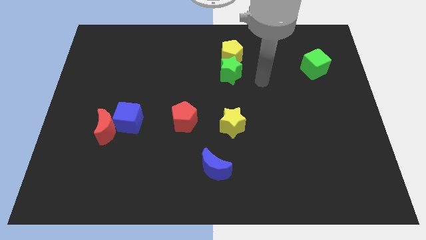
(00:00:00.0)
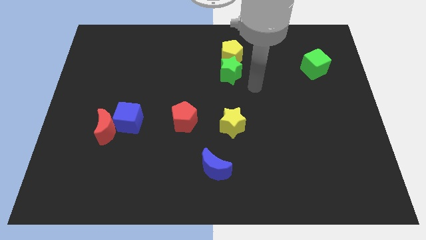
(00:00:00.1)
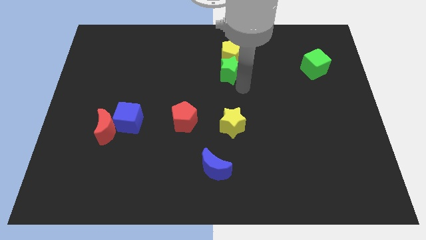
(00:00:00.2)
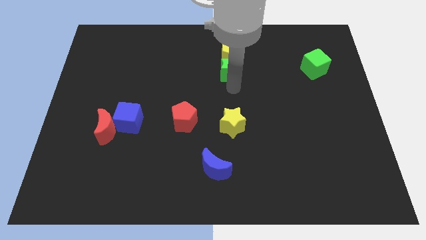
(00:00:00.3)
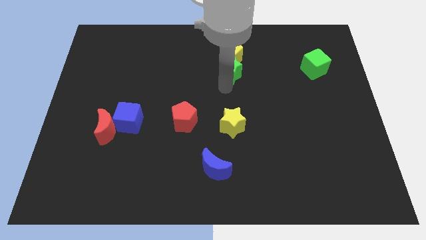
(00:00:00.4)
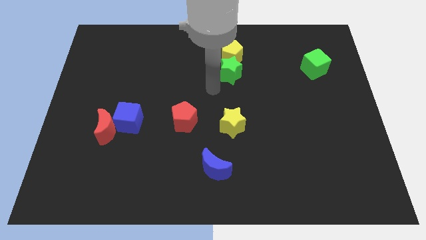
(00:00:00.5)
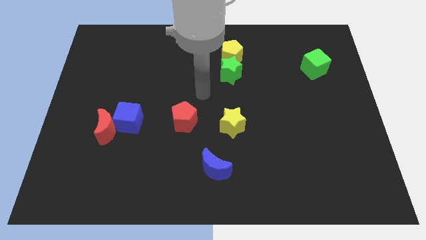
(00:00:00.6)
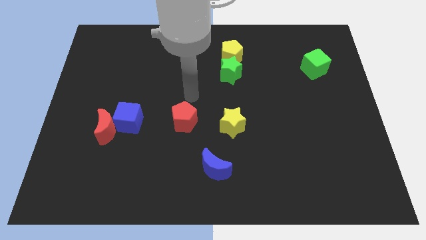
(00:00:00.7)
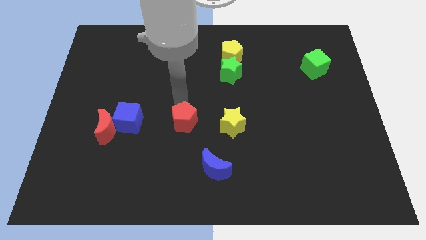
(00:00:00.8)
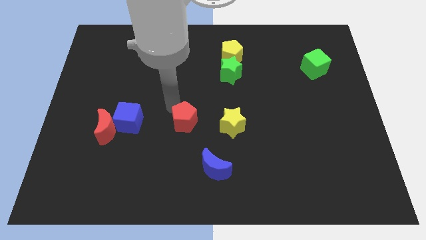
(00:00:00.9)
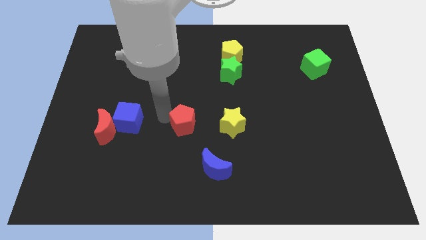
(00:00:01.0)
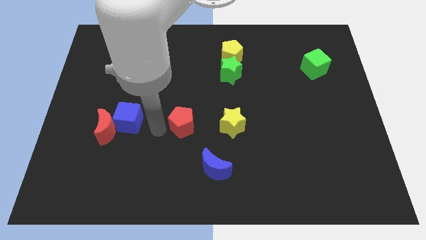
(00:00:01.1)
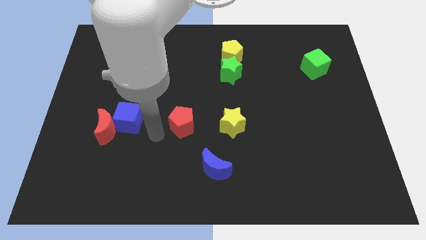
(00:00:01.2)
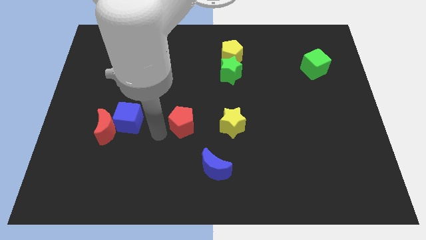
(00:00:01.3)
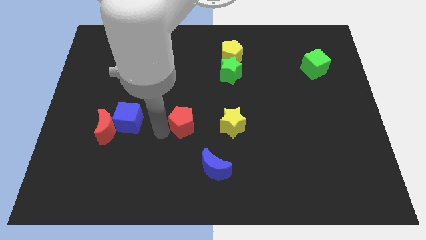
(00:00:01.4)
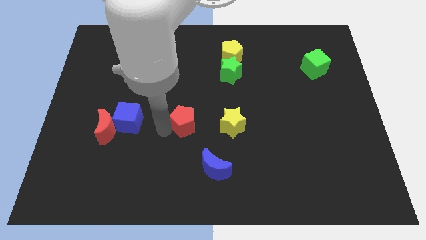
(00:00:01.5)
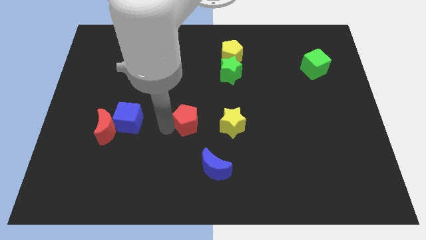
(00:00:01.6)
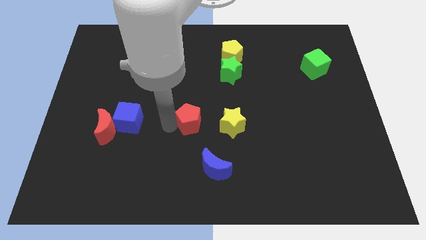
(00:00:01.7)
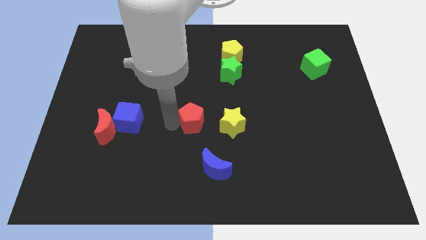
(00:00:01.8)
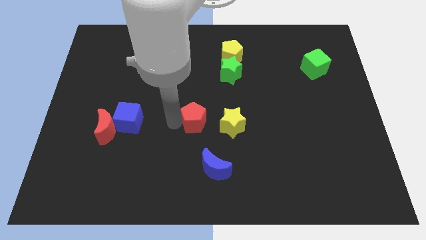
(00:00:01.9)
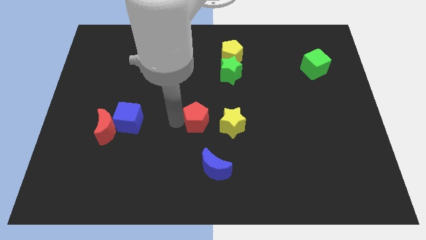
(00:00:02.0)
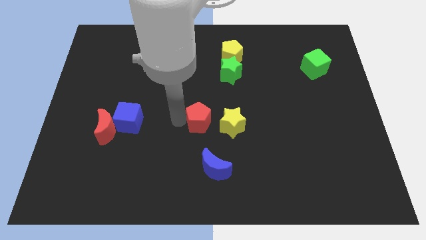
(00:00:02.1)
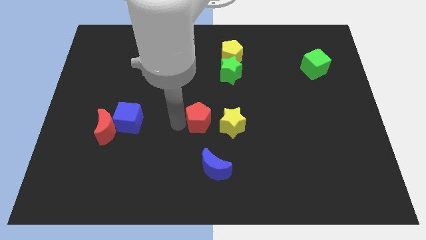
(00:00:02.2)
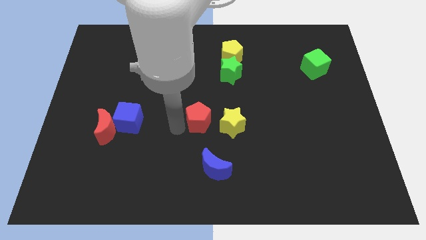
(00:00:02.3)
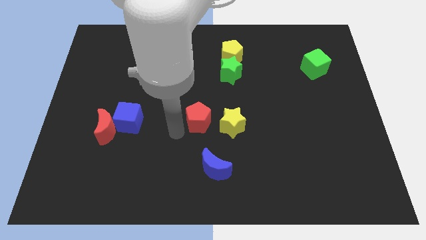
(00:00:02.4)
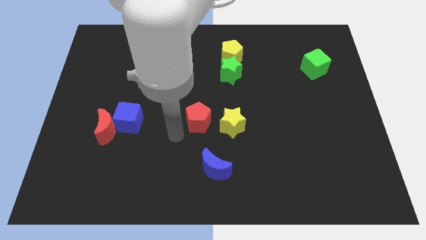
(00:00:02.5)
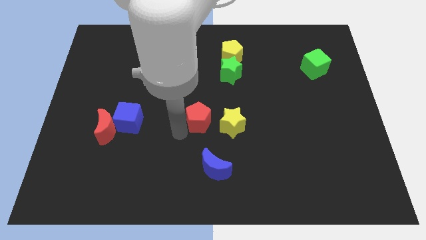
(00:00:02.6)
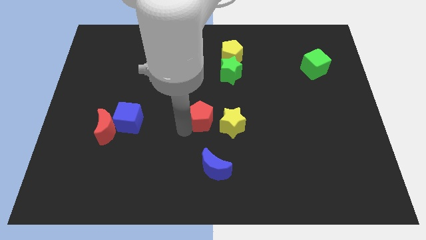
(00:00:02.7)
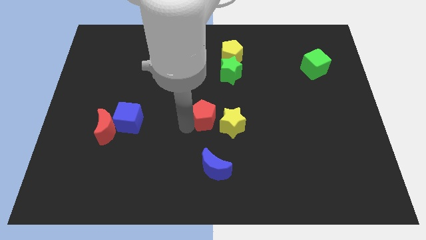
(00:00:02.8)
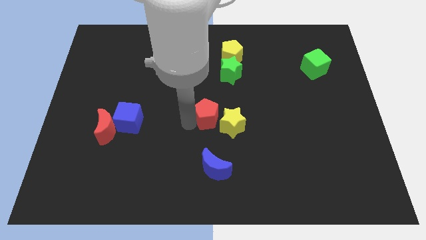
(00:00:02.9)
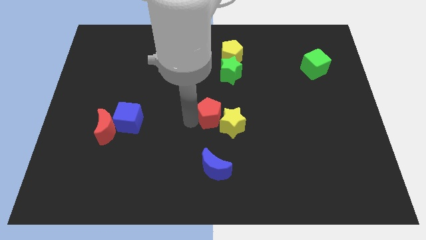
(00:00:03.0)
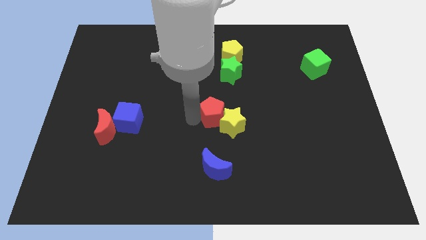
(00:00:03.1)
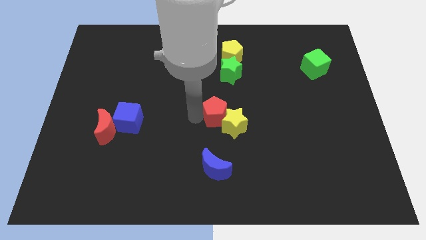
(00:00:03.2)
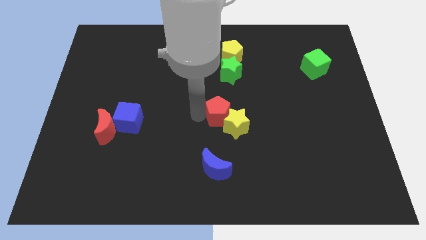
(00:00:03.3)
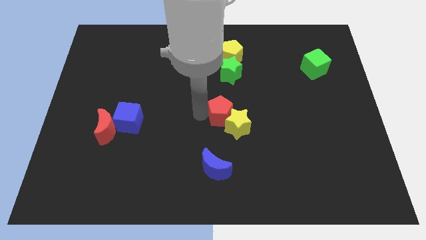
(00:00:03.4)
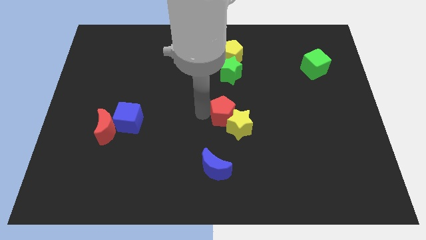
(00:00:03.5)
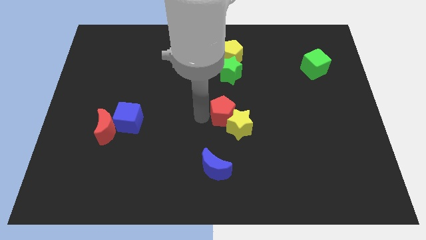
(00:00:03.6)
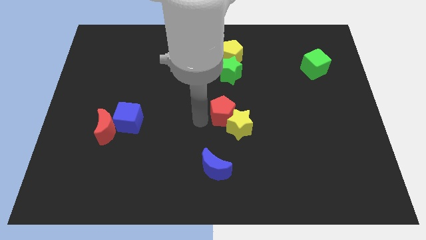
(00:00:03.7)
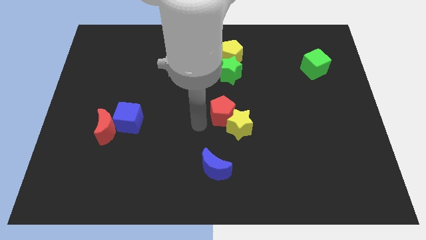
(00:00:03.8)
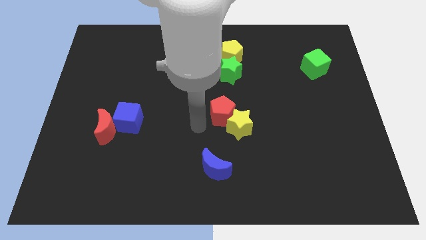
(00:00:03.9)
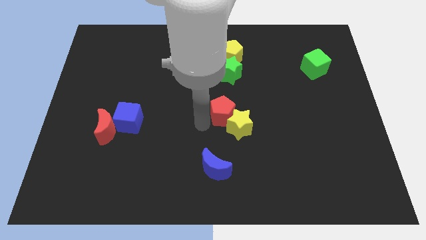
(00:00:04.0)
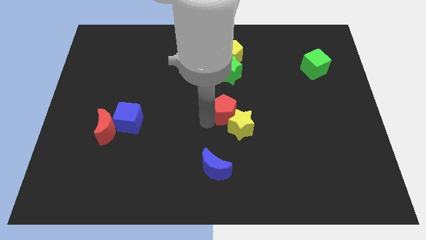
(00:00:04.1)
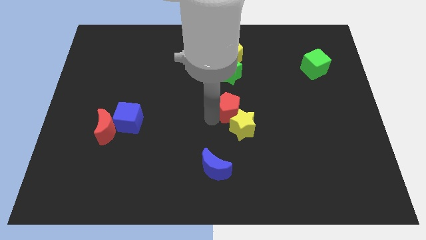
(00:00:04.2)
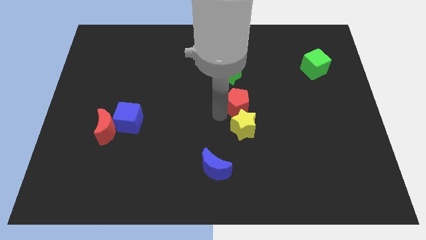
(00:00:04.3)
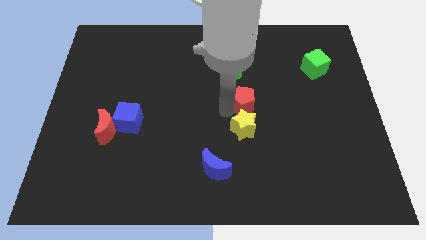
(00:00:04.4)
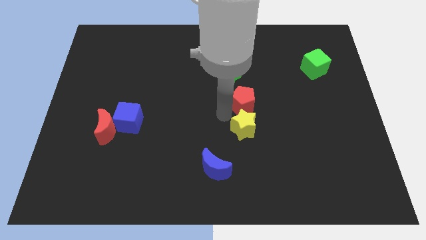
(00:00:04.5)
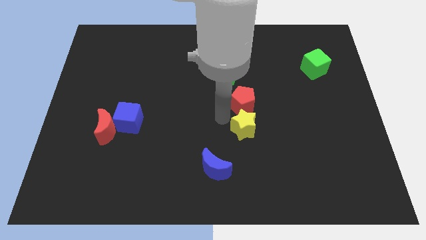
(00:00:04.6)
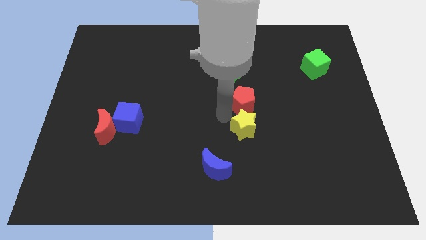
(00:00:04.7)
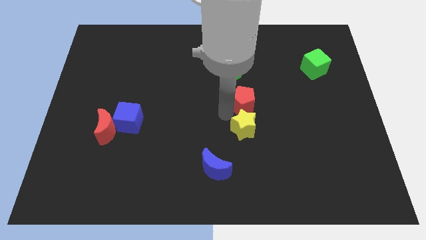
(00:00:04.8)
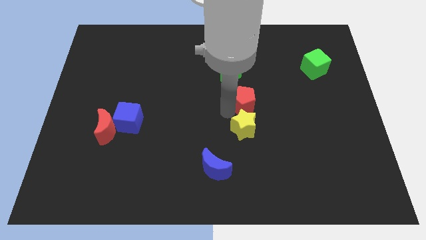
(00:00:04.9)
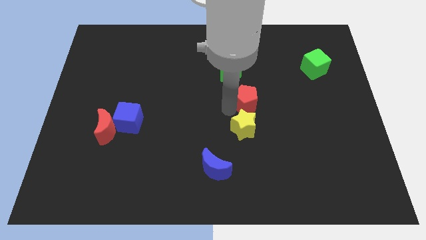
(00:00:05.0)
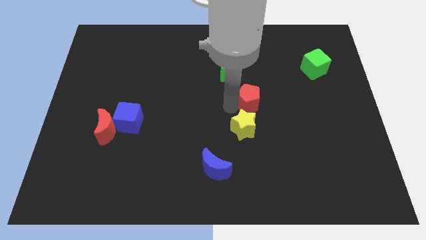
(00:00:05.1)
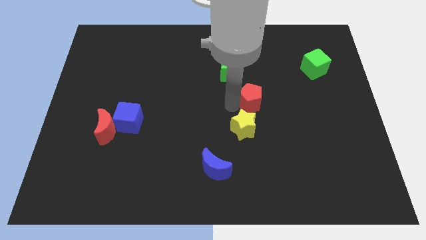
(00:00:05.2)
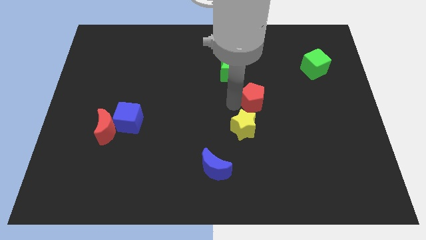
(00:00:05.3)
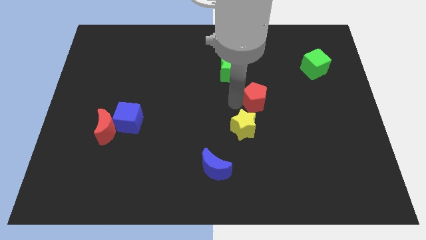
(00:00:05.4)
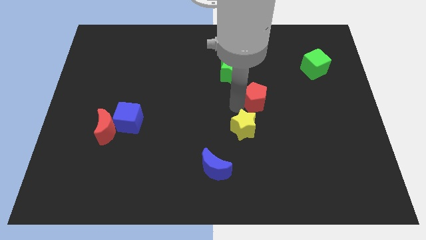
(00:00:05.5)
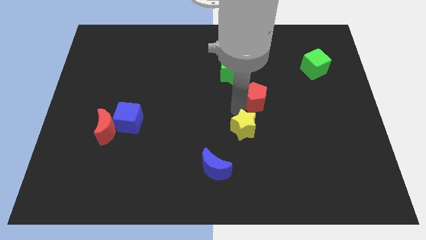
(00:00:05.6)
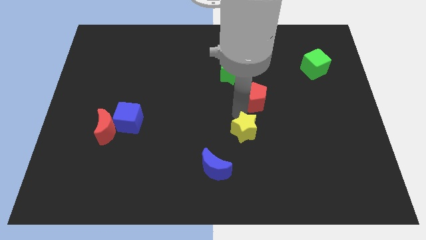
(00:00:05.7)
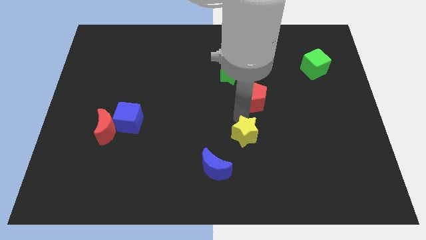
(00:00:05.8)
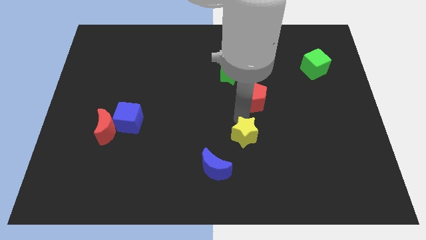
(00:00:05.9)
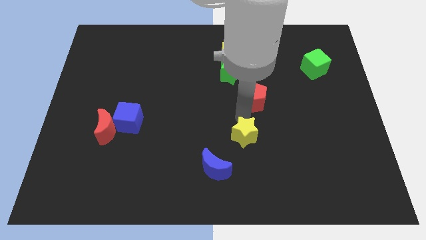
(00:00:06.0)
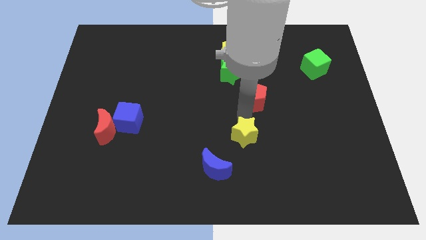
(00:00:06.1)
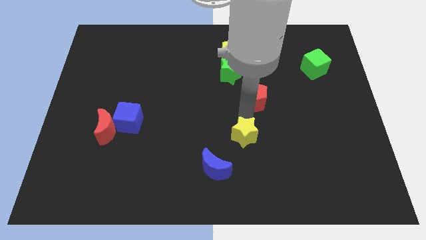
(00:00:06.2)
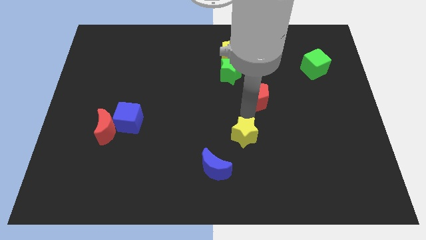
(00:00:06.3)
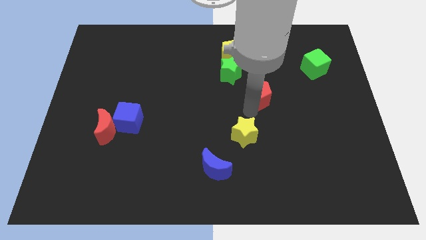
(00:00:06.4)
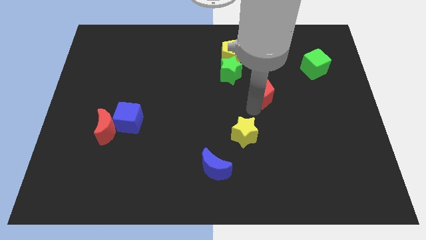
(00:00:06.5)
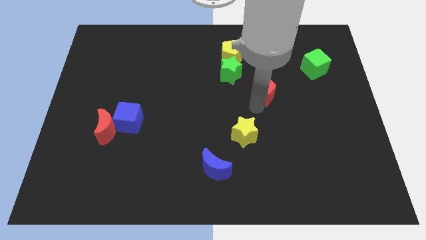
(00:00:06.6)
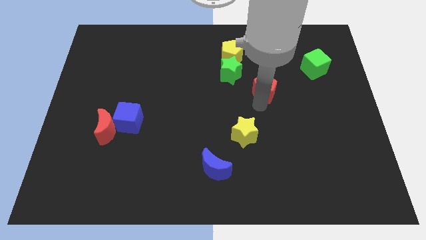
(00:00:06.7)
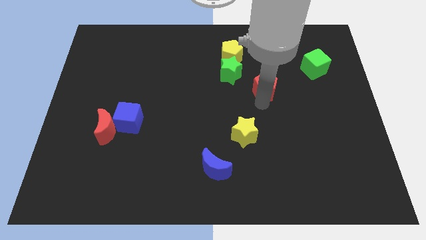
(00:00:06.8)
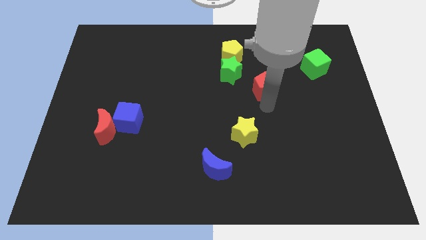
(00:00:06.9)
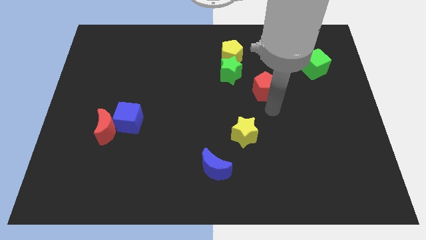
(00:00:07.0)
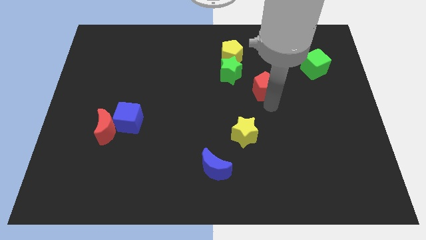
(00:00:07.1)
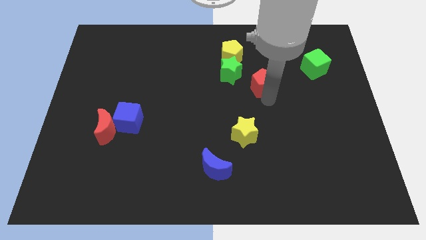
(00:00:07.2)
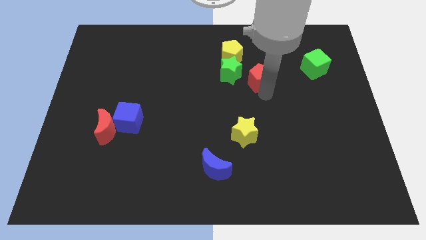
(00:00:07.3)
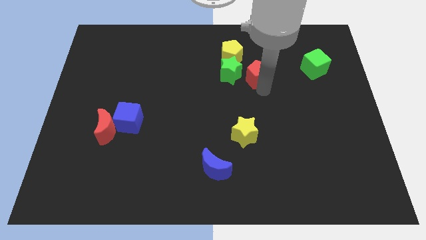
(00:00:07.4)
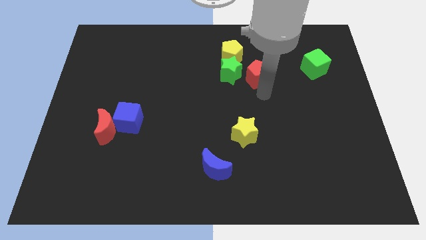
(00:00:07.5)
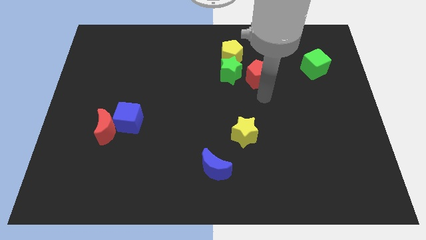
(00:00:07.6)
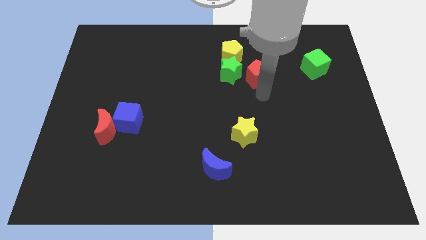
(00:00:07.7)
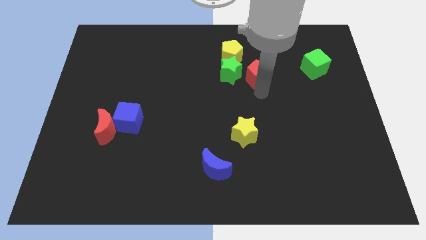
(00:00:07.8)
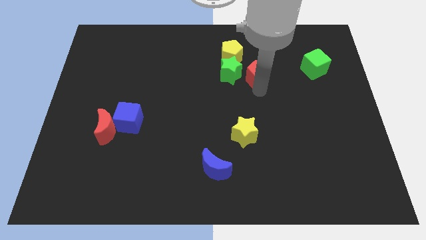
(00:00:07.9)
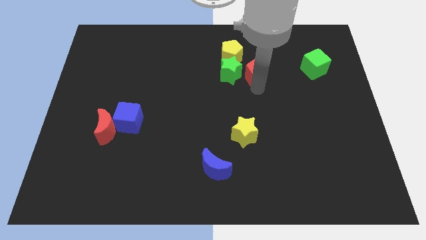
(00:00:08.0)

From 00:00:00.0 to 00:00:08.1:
slide the red pentagon to the top right of the green star
